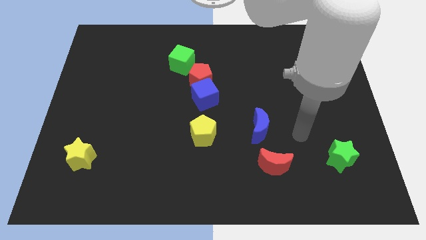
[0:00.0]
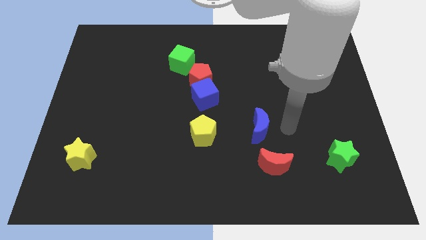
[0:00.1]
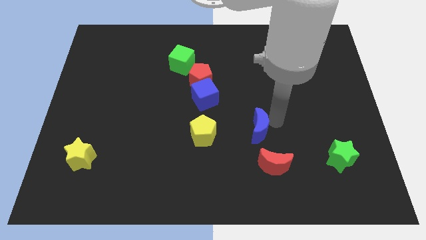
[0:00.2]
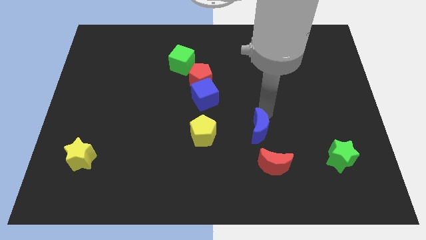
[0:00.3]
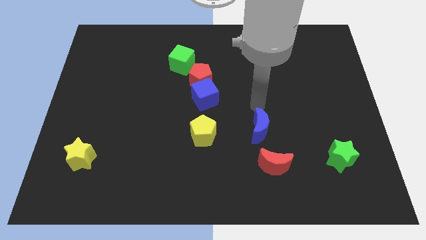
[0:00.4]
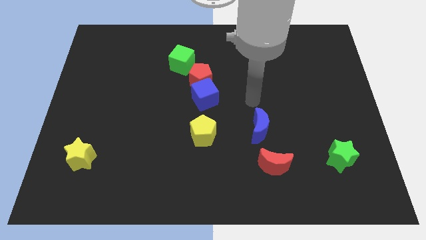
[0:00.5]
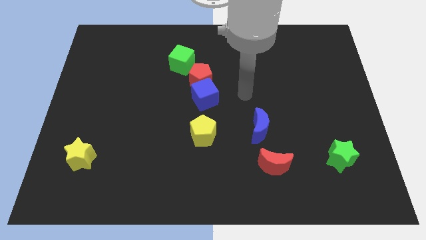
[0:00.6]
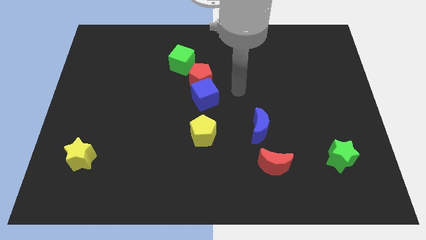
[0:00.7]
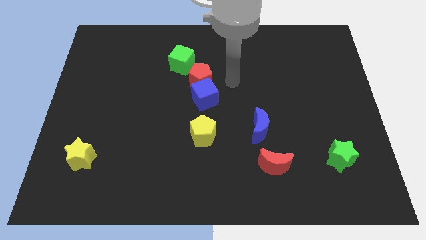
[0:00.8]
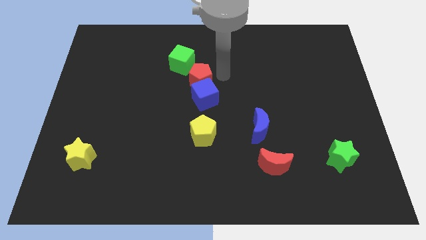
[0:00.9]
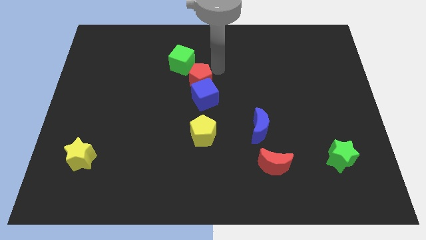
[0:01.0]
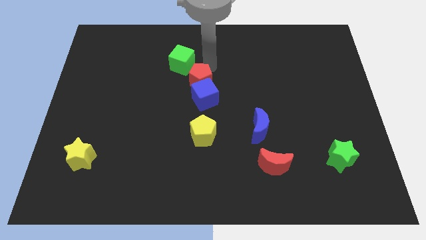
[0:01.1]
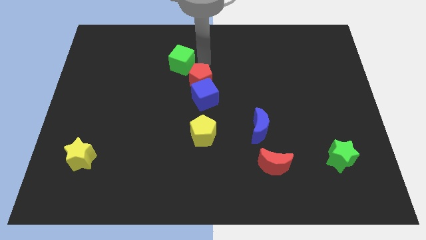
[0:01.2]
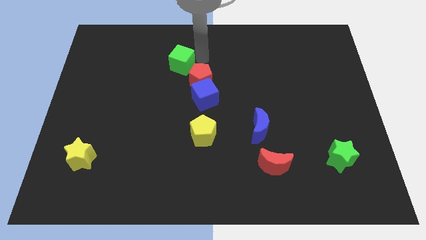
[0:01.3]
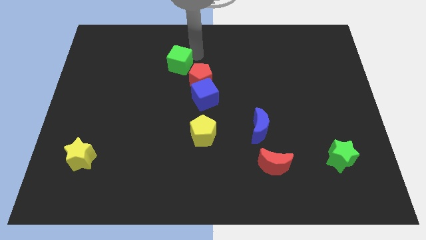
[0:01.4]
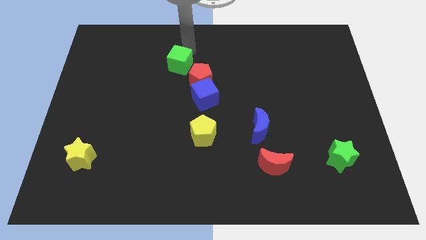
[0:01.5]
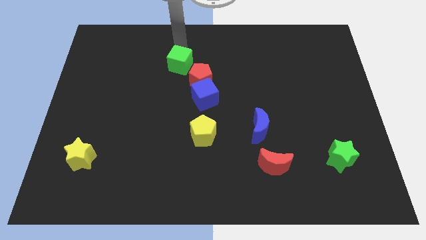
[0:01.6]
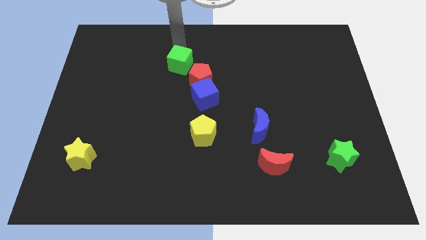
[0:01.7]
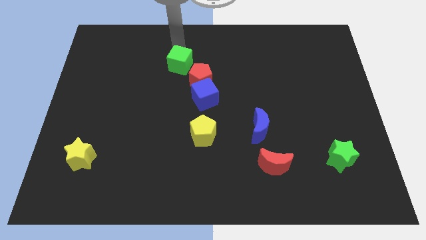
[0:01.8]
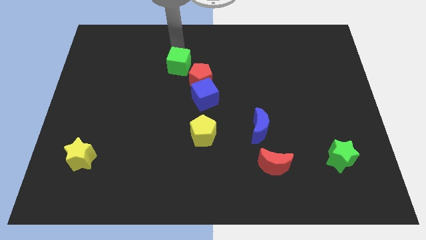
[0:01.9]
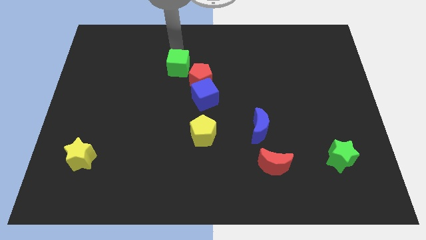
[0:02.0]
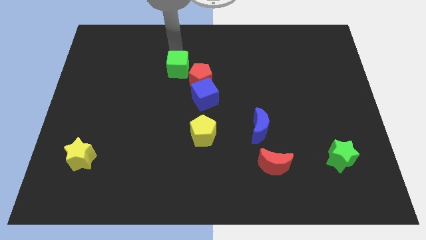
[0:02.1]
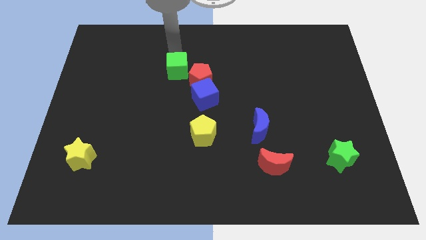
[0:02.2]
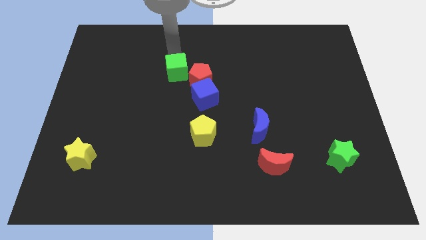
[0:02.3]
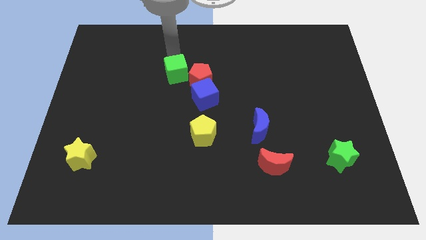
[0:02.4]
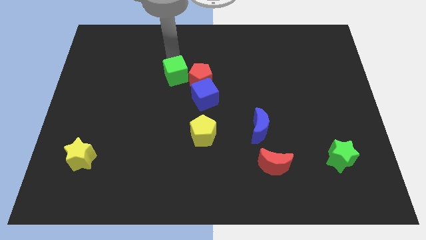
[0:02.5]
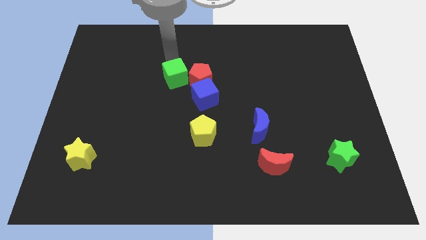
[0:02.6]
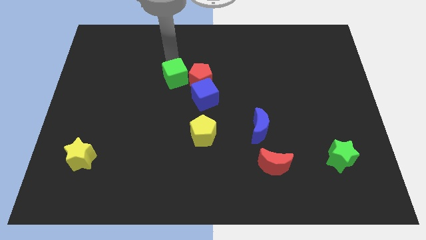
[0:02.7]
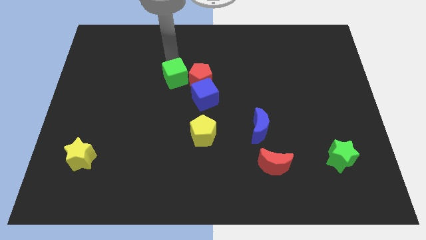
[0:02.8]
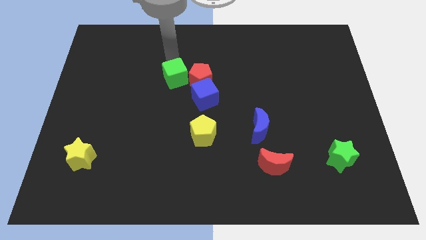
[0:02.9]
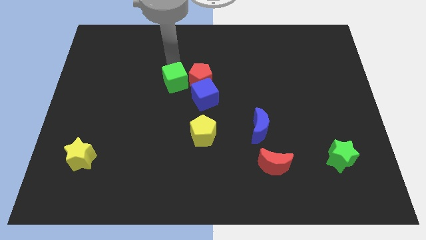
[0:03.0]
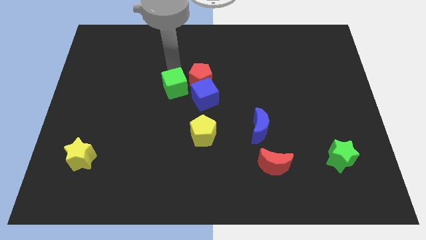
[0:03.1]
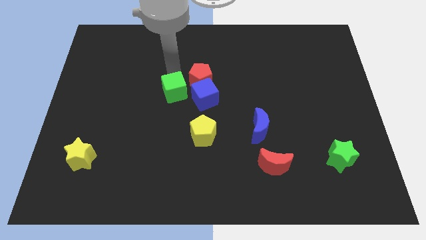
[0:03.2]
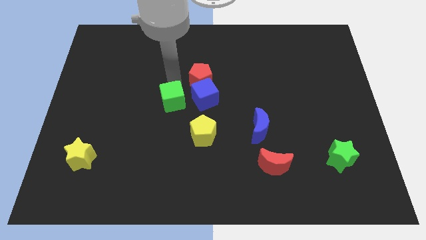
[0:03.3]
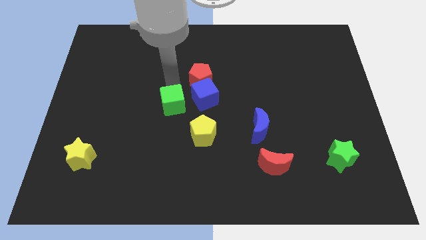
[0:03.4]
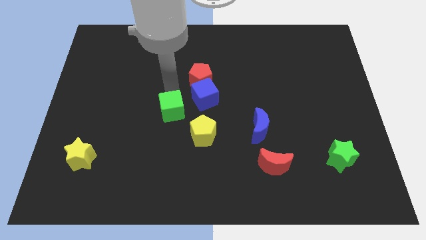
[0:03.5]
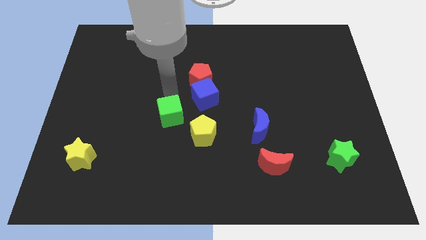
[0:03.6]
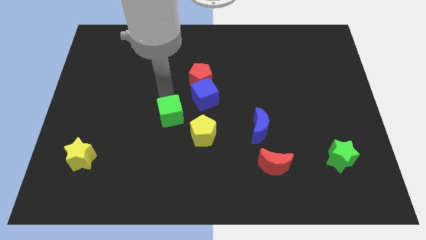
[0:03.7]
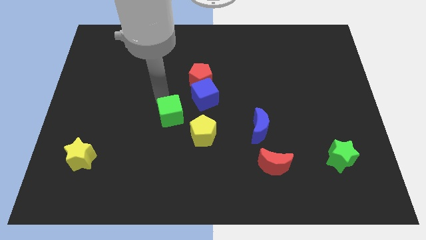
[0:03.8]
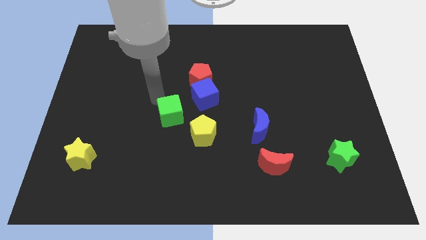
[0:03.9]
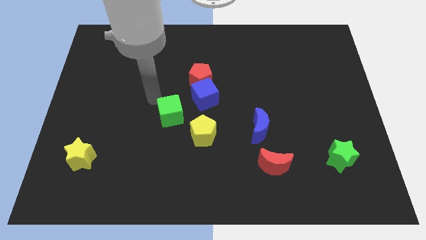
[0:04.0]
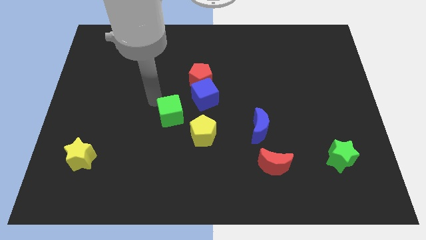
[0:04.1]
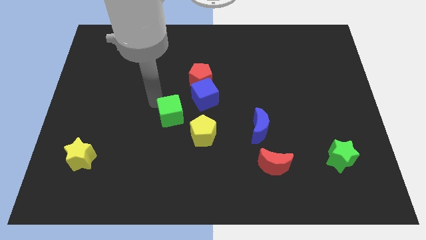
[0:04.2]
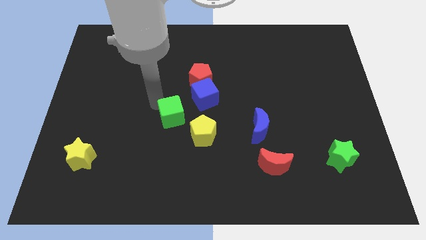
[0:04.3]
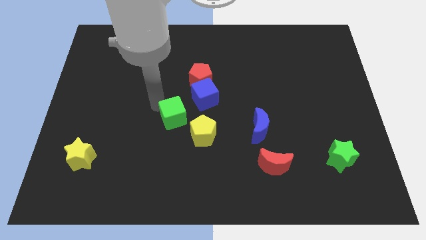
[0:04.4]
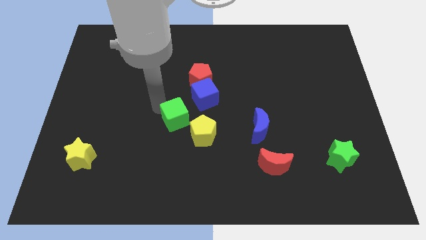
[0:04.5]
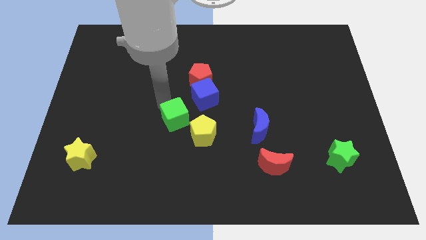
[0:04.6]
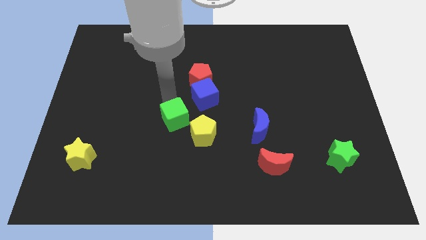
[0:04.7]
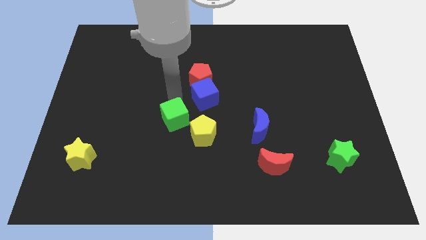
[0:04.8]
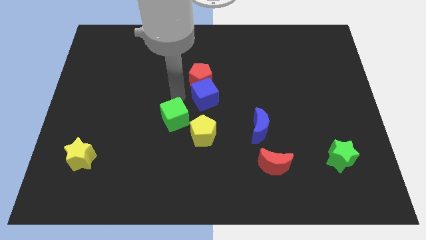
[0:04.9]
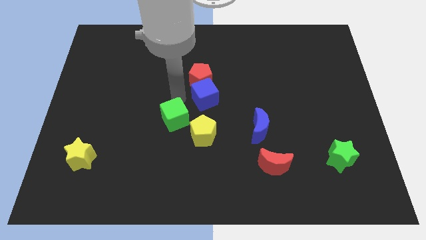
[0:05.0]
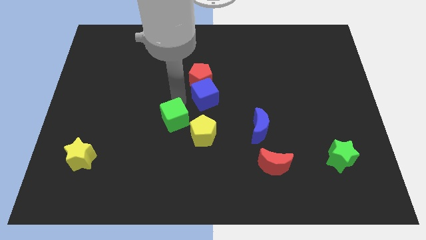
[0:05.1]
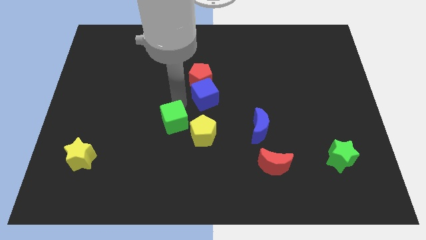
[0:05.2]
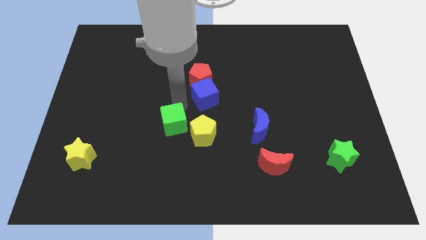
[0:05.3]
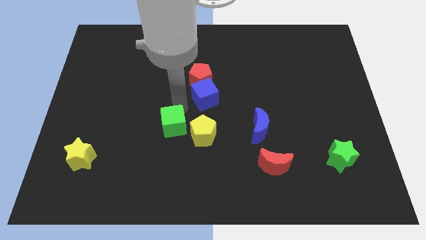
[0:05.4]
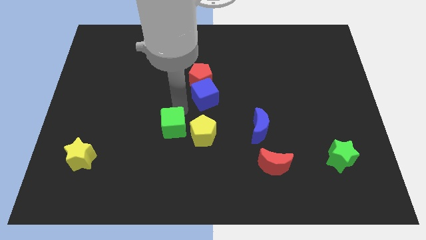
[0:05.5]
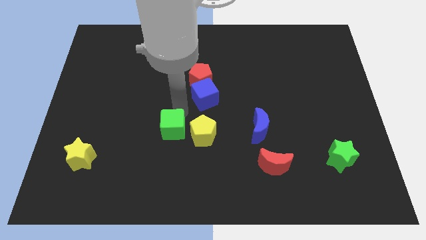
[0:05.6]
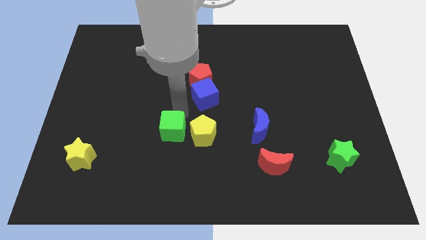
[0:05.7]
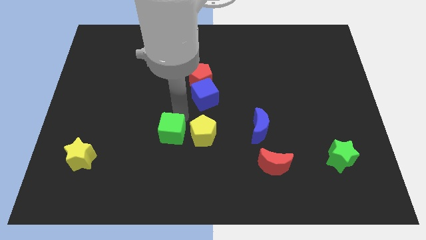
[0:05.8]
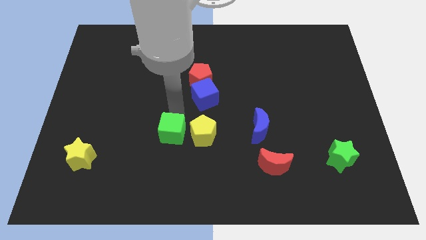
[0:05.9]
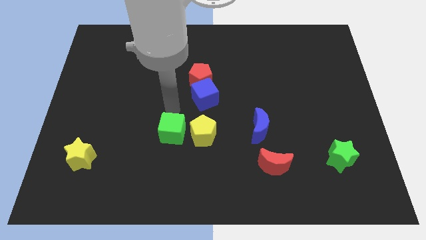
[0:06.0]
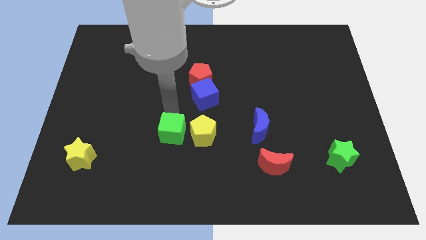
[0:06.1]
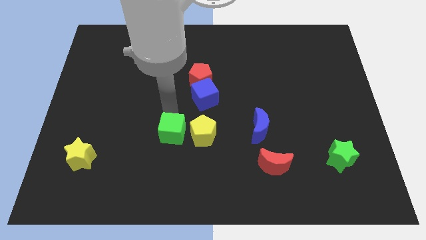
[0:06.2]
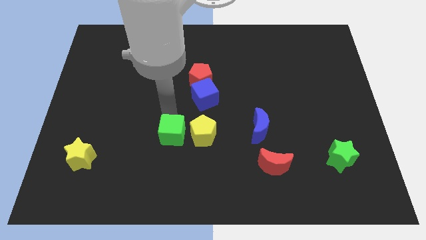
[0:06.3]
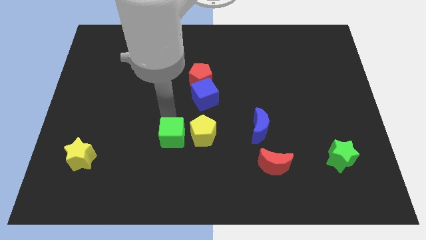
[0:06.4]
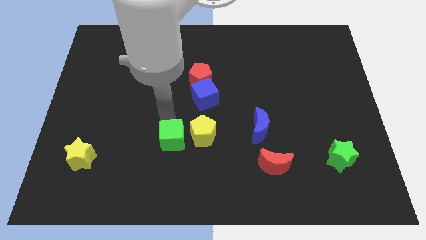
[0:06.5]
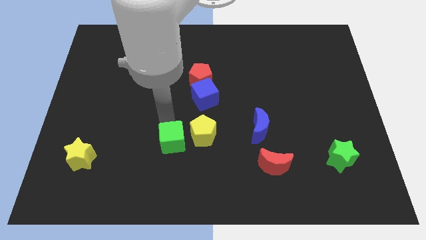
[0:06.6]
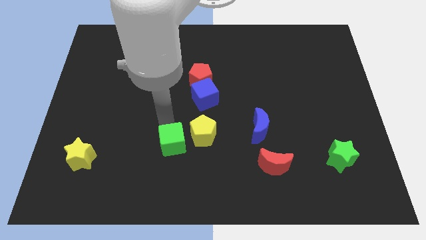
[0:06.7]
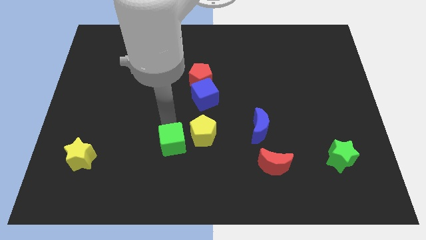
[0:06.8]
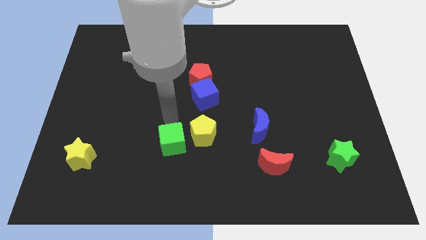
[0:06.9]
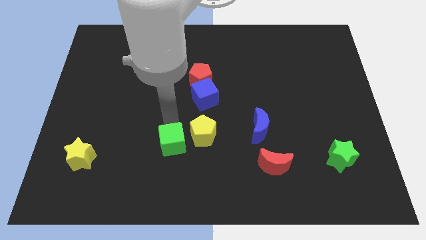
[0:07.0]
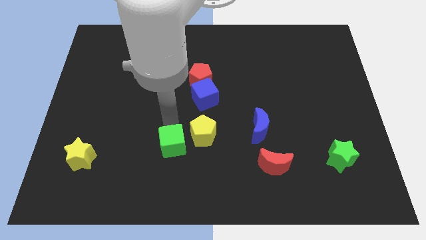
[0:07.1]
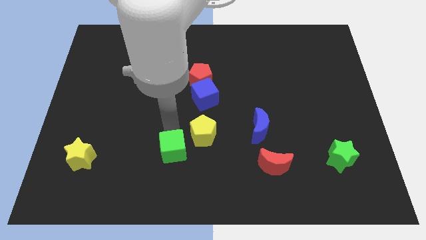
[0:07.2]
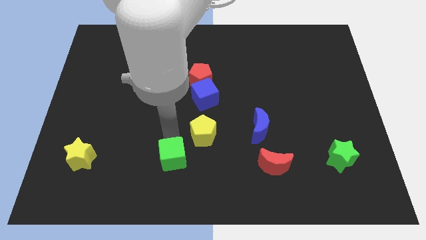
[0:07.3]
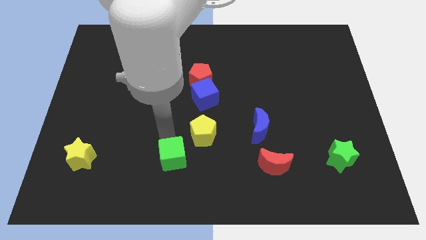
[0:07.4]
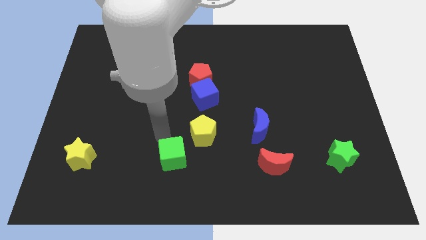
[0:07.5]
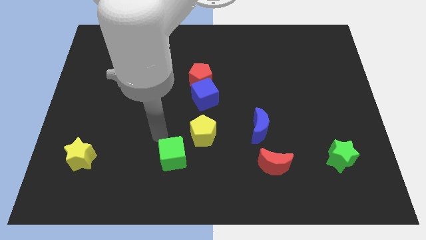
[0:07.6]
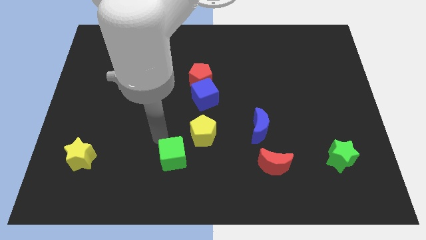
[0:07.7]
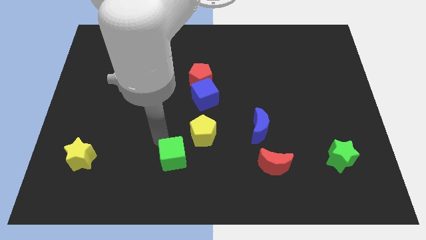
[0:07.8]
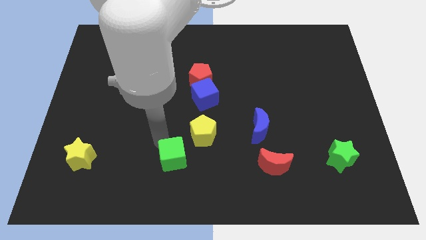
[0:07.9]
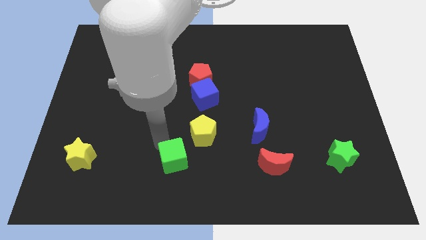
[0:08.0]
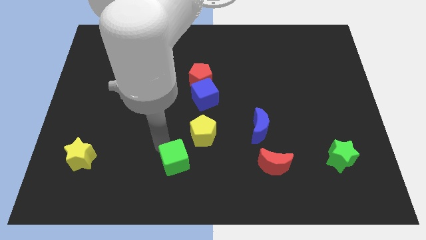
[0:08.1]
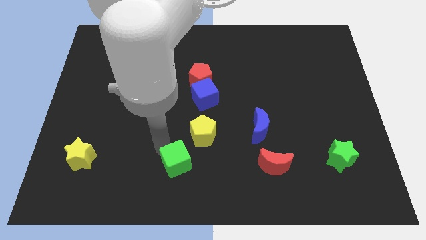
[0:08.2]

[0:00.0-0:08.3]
move the green cube to the bottom side
